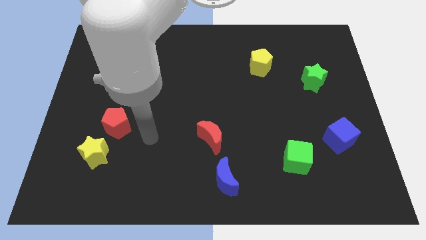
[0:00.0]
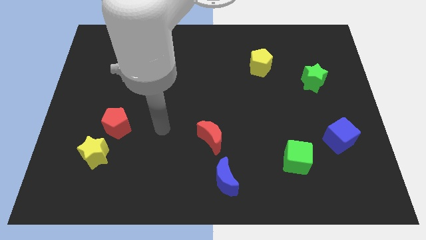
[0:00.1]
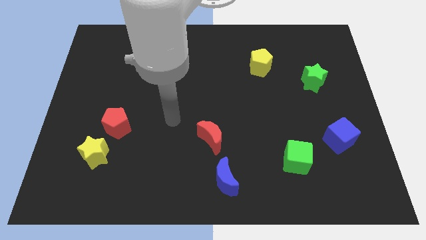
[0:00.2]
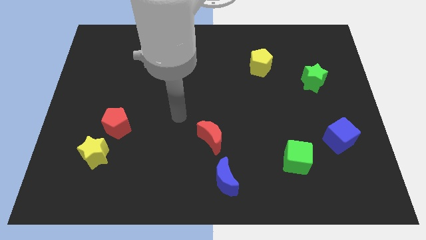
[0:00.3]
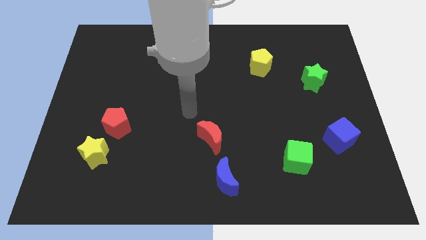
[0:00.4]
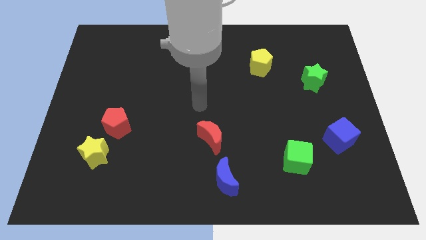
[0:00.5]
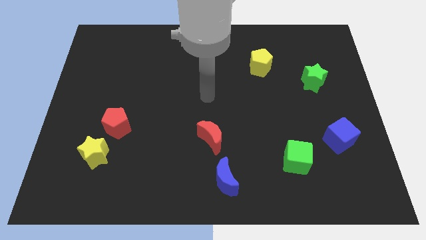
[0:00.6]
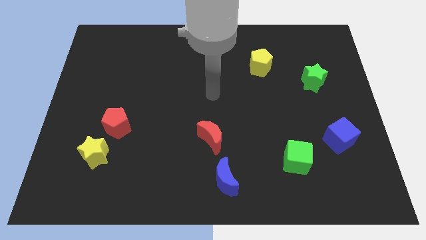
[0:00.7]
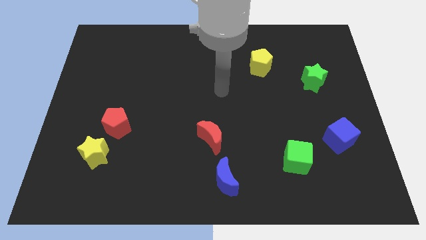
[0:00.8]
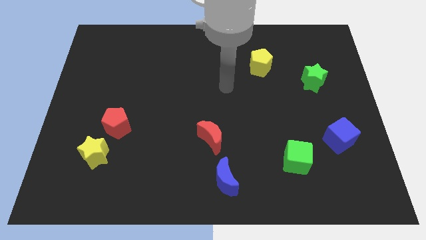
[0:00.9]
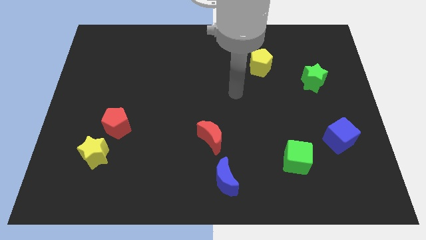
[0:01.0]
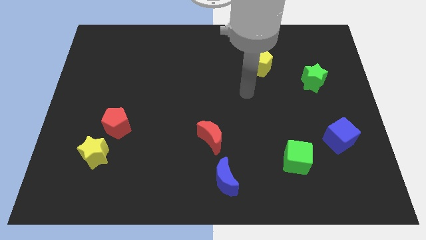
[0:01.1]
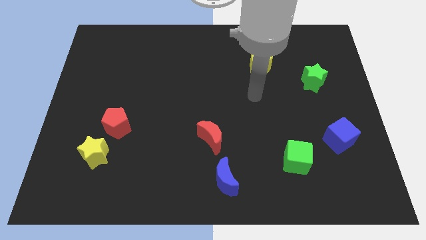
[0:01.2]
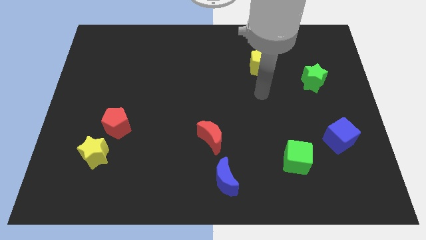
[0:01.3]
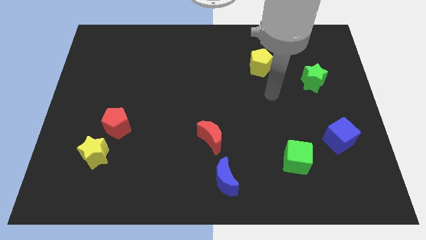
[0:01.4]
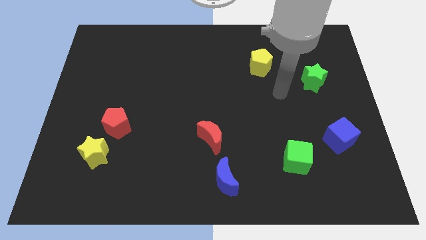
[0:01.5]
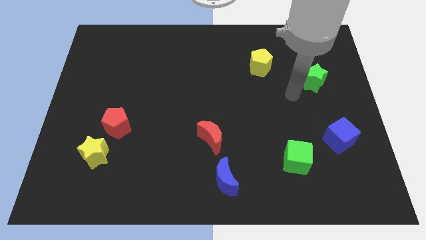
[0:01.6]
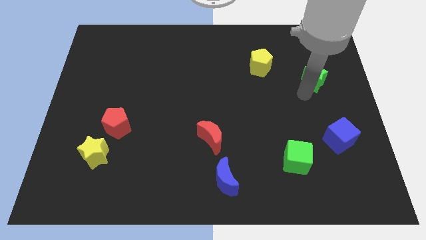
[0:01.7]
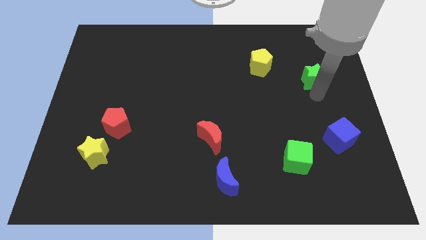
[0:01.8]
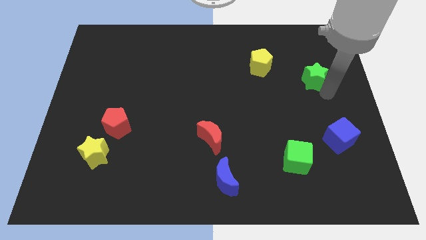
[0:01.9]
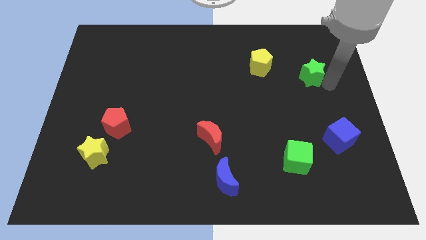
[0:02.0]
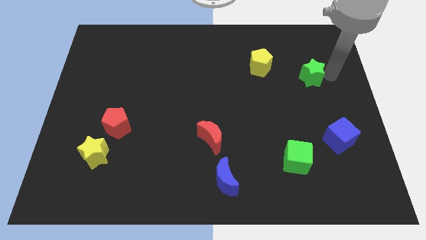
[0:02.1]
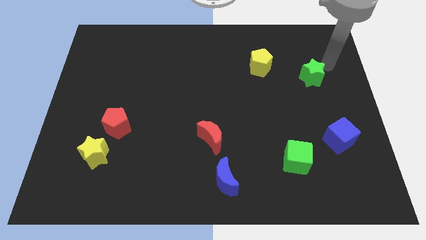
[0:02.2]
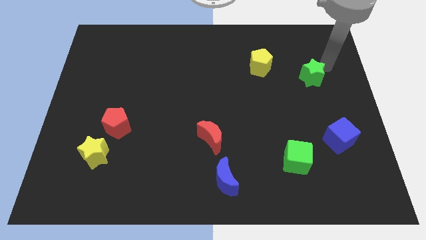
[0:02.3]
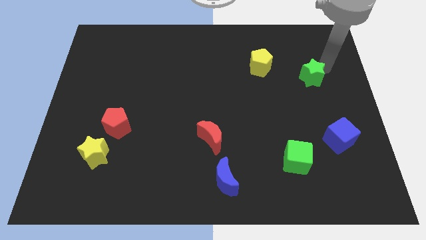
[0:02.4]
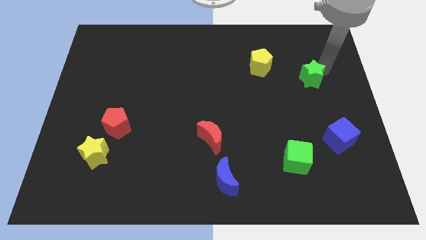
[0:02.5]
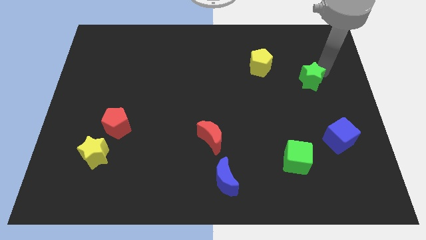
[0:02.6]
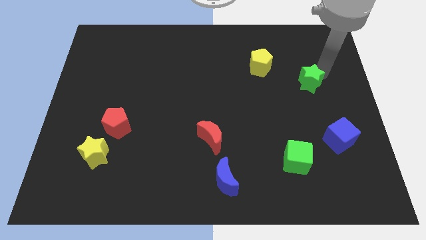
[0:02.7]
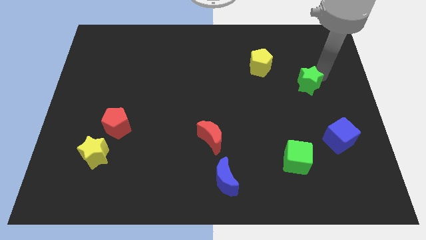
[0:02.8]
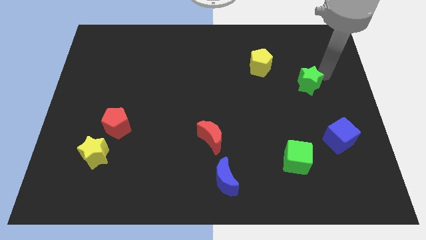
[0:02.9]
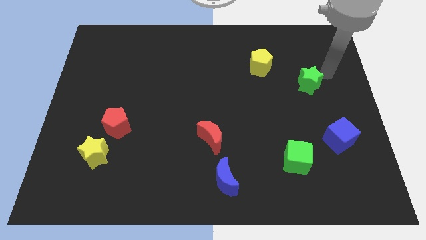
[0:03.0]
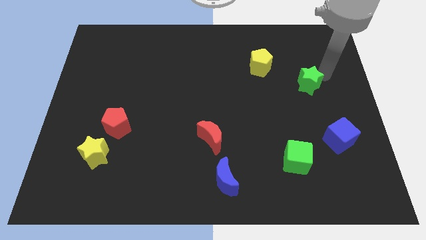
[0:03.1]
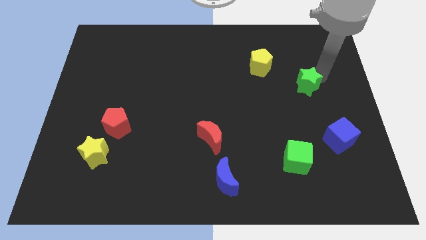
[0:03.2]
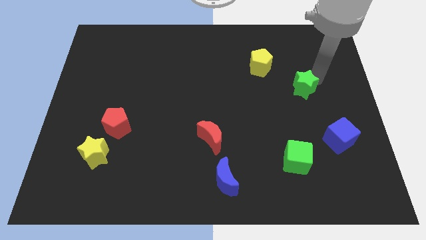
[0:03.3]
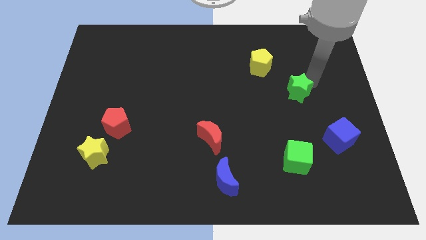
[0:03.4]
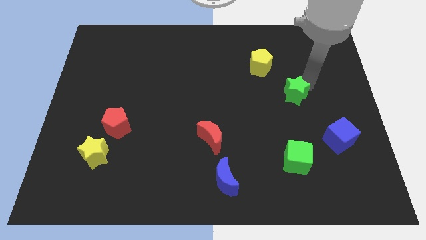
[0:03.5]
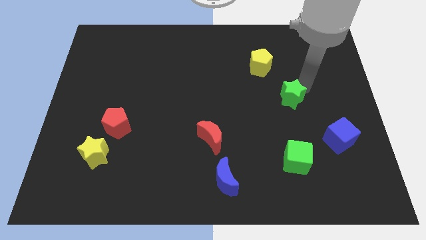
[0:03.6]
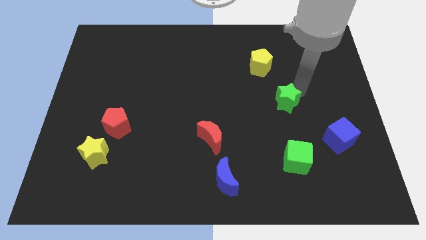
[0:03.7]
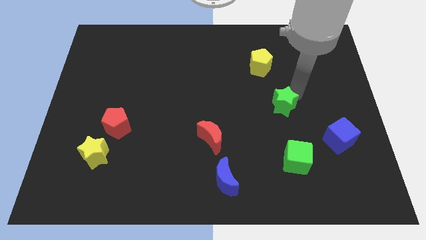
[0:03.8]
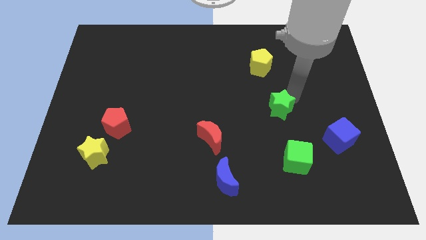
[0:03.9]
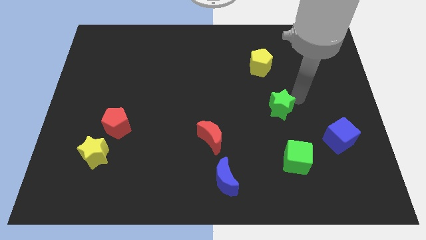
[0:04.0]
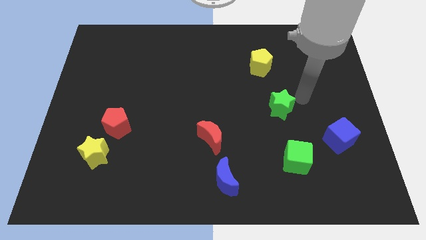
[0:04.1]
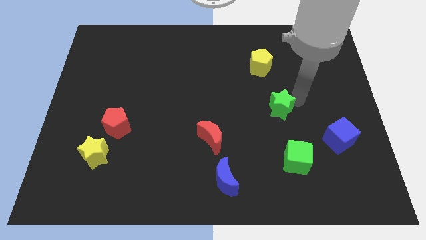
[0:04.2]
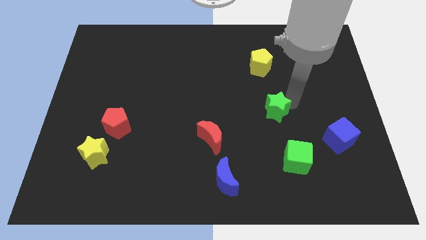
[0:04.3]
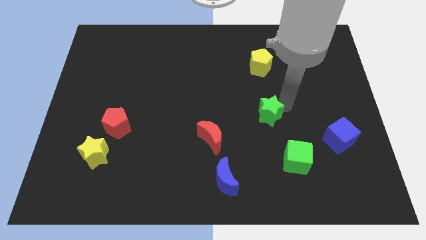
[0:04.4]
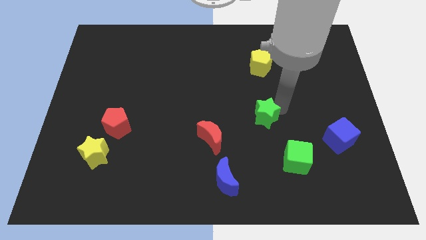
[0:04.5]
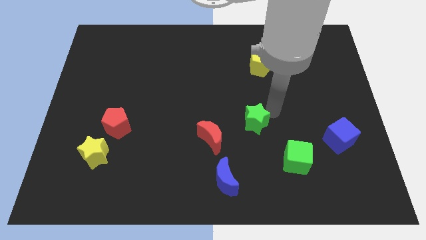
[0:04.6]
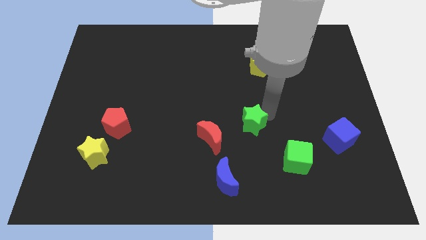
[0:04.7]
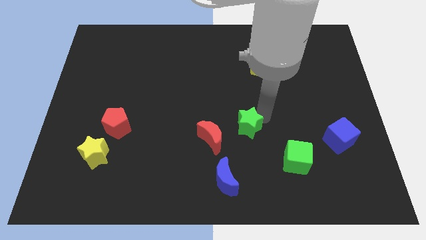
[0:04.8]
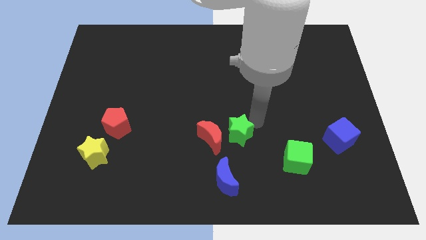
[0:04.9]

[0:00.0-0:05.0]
push the green star next to the red moon

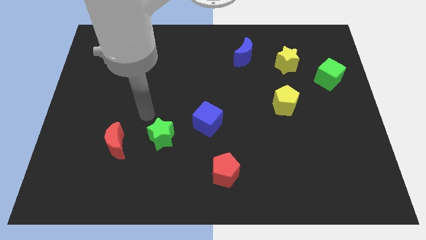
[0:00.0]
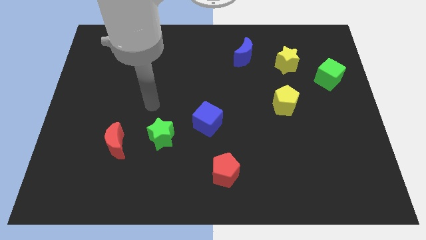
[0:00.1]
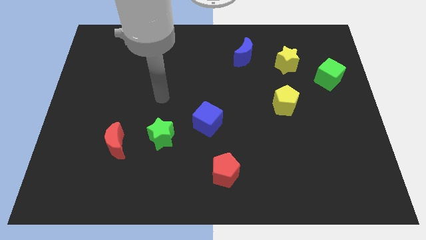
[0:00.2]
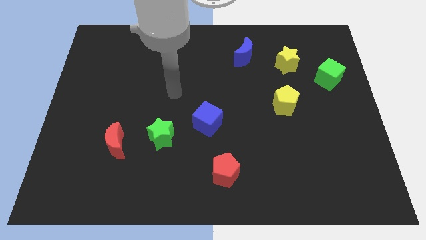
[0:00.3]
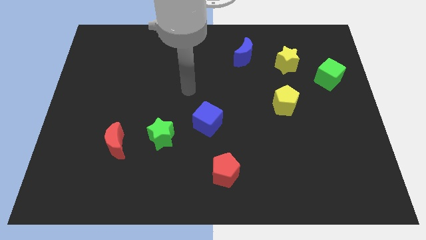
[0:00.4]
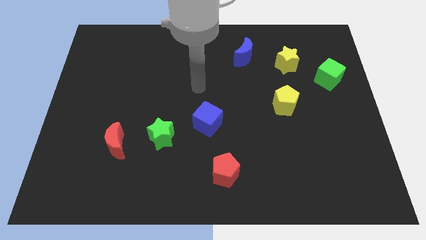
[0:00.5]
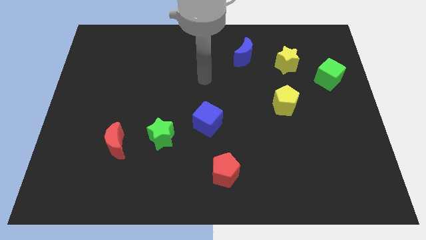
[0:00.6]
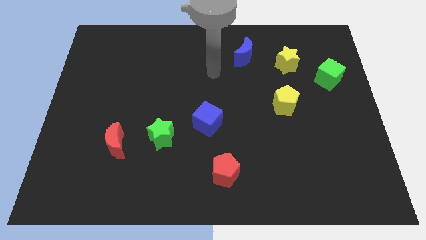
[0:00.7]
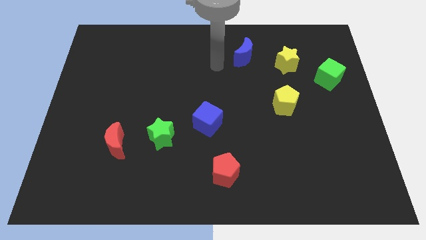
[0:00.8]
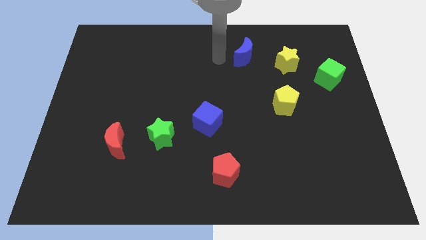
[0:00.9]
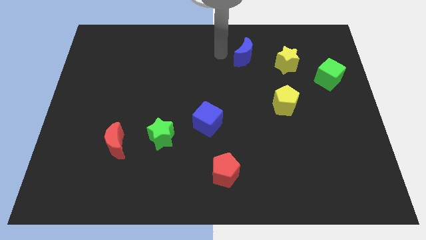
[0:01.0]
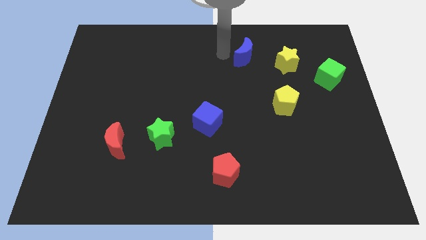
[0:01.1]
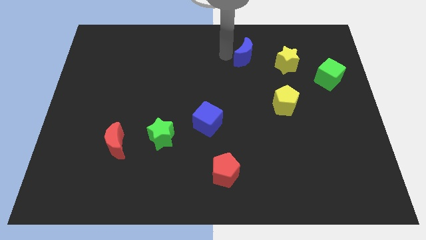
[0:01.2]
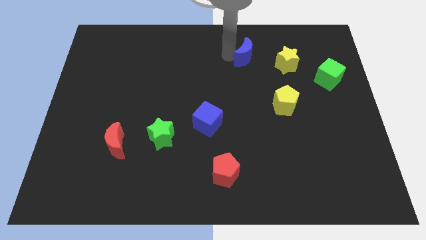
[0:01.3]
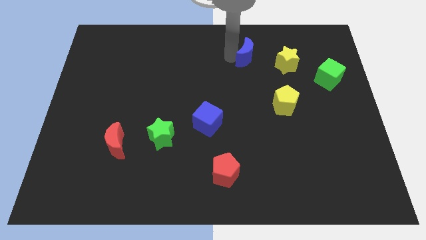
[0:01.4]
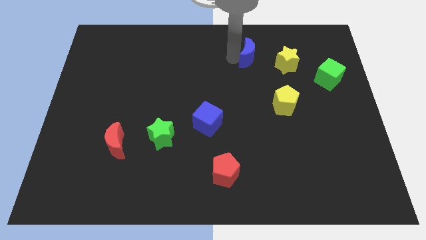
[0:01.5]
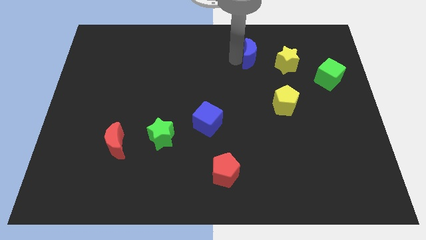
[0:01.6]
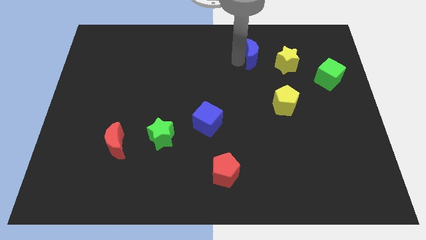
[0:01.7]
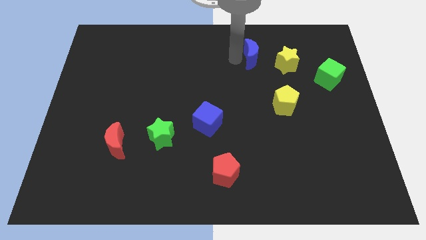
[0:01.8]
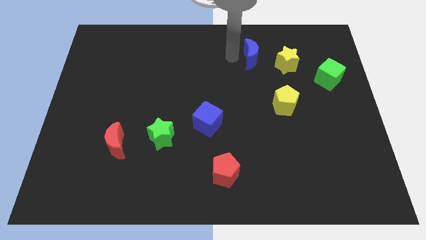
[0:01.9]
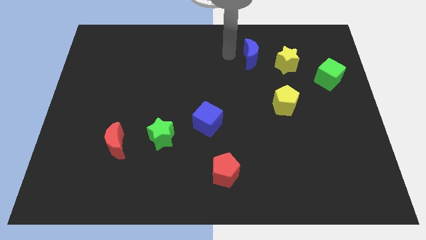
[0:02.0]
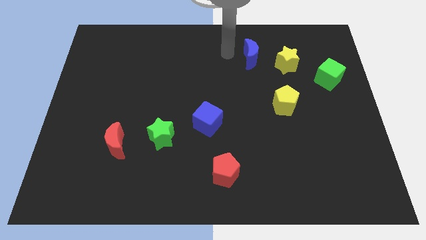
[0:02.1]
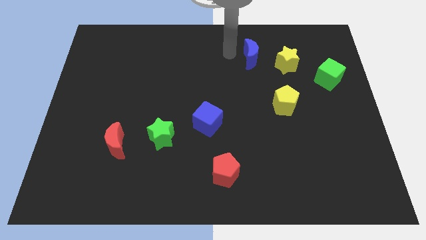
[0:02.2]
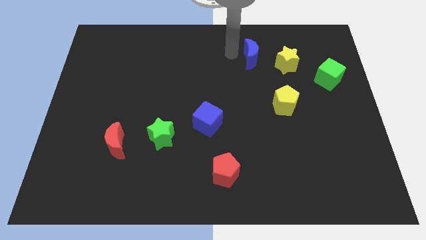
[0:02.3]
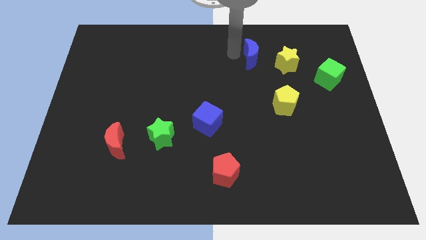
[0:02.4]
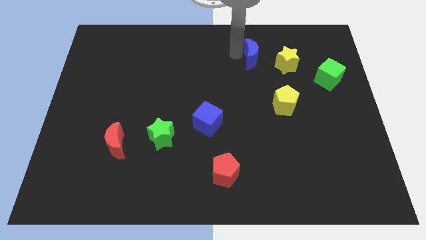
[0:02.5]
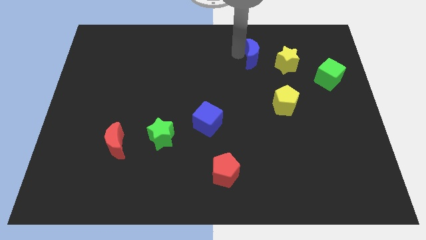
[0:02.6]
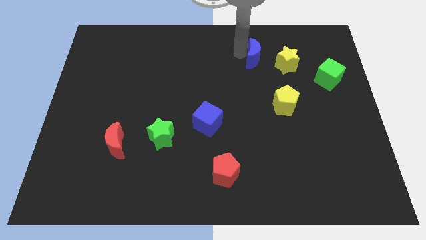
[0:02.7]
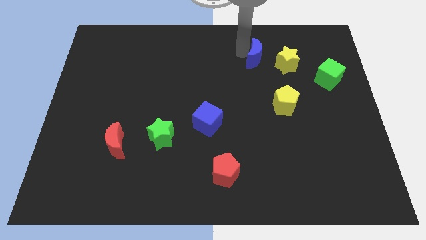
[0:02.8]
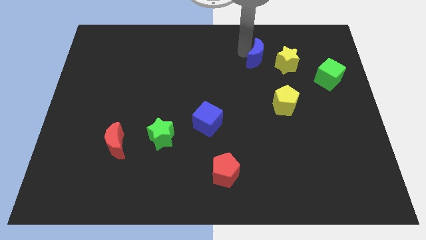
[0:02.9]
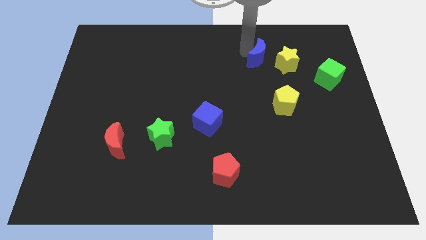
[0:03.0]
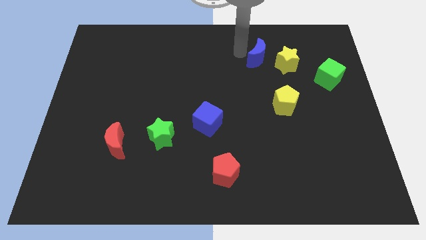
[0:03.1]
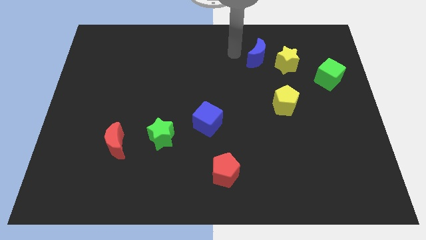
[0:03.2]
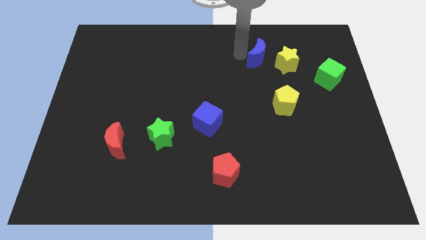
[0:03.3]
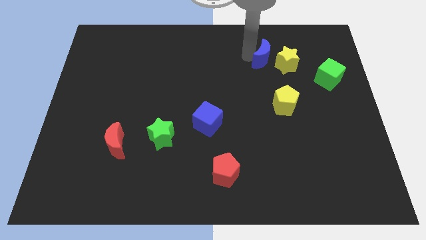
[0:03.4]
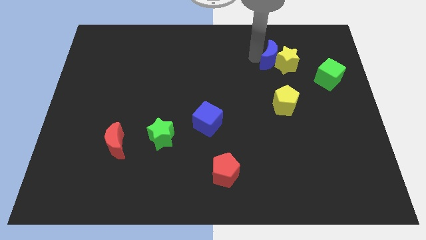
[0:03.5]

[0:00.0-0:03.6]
slide the blue moon to the yellow star
